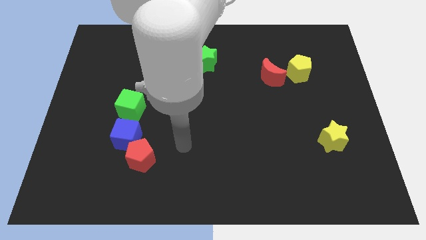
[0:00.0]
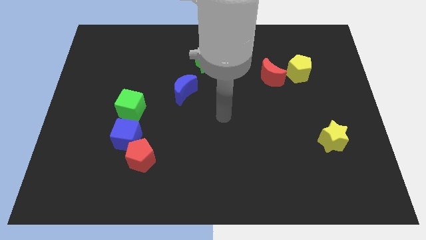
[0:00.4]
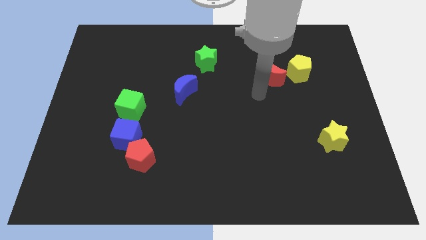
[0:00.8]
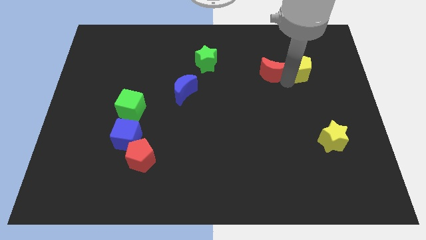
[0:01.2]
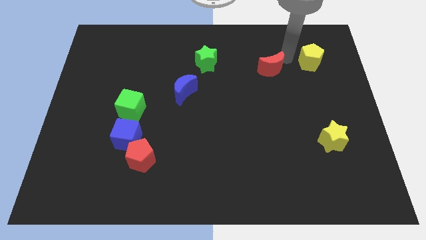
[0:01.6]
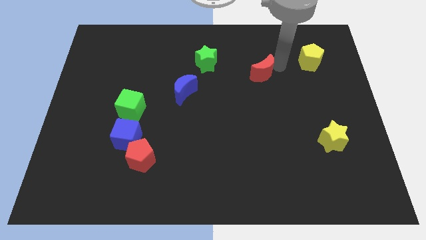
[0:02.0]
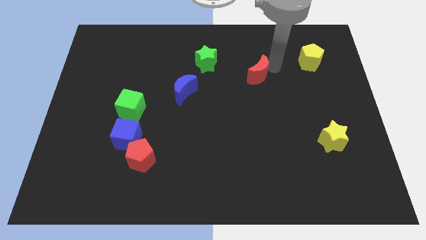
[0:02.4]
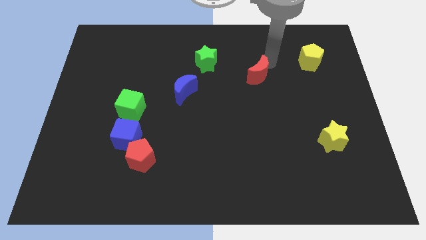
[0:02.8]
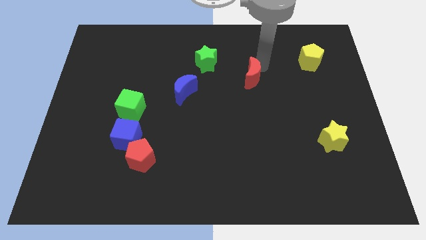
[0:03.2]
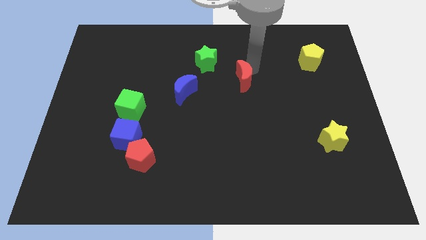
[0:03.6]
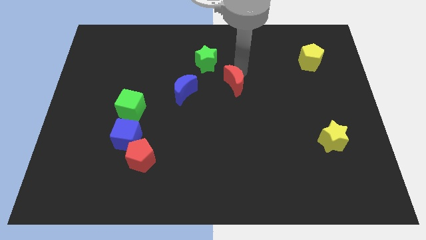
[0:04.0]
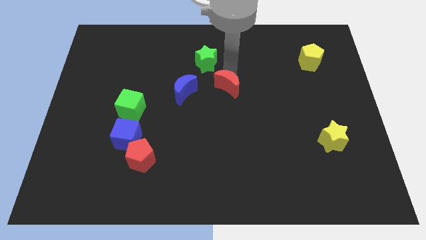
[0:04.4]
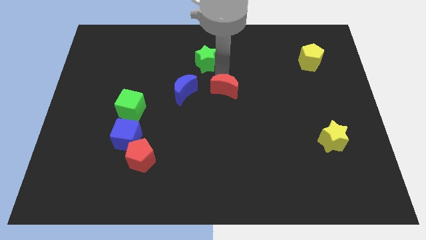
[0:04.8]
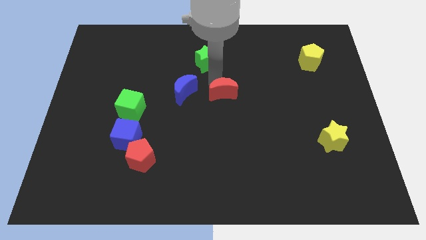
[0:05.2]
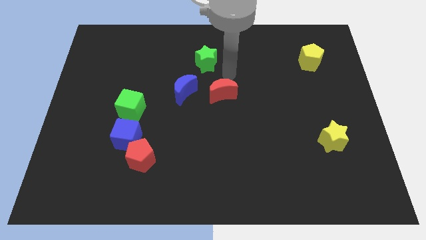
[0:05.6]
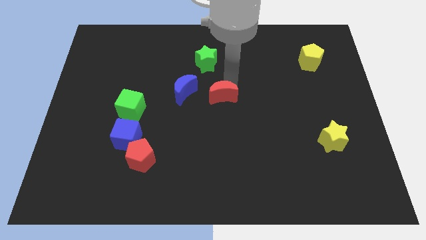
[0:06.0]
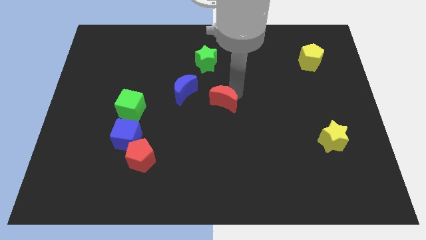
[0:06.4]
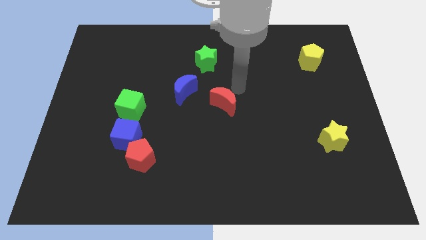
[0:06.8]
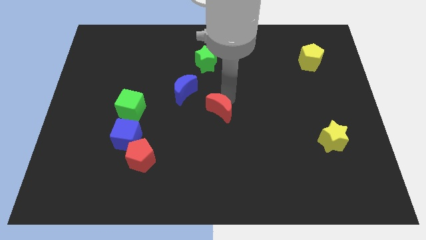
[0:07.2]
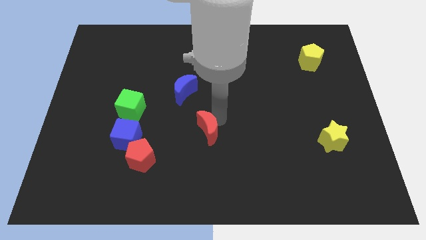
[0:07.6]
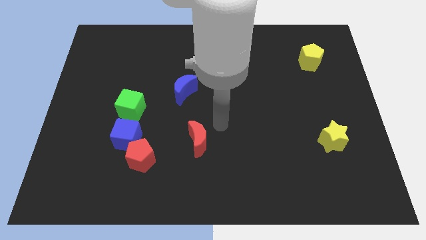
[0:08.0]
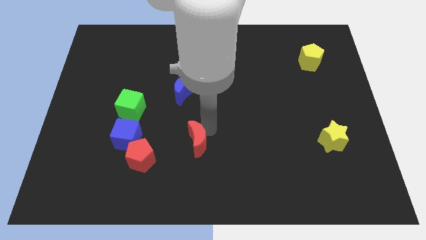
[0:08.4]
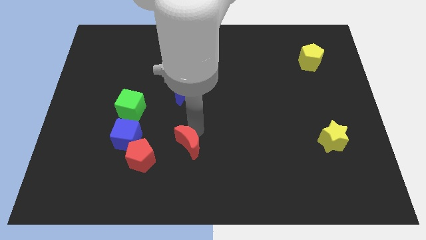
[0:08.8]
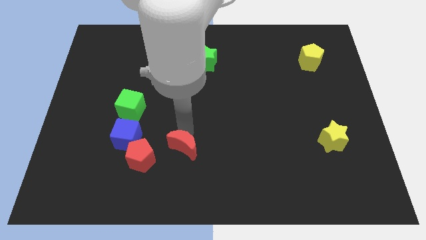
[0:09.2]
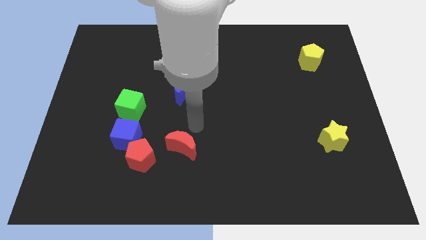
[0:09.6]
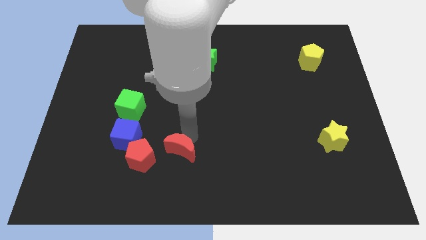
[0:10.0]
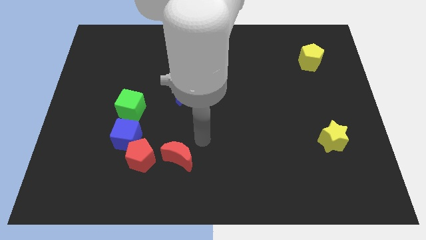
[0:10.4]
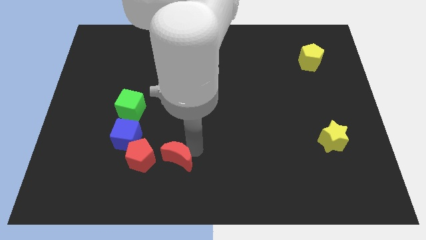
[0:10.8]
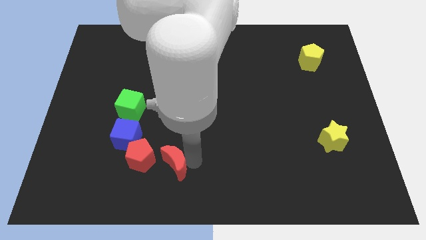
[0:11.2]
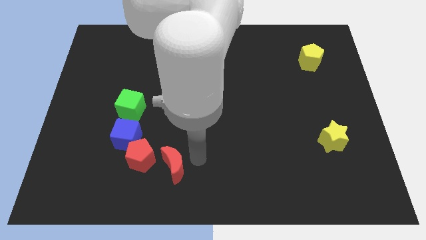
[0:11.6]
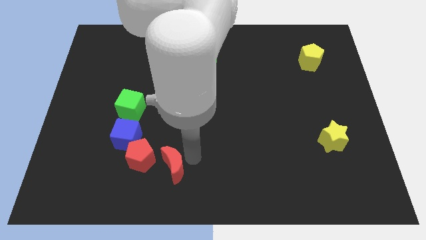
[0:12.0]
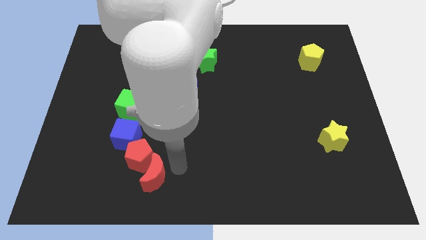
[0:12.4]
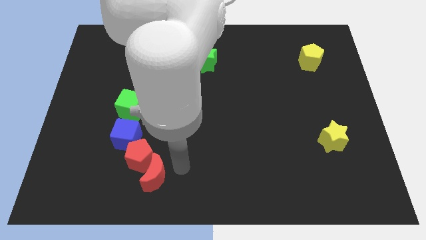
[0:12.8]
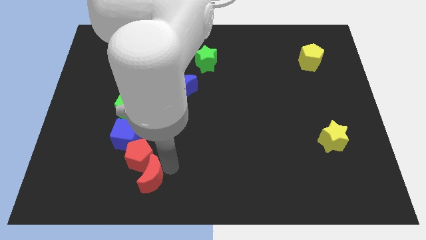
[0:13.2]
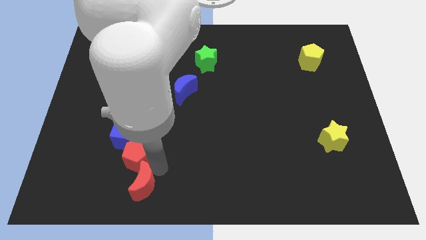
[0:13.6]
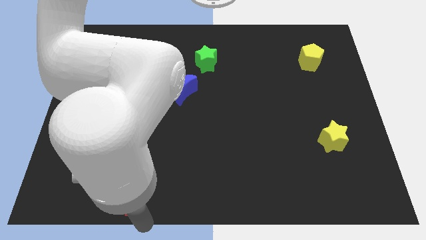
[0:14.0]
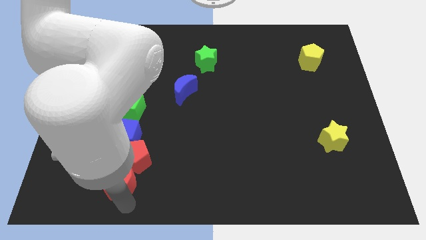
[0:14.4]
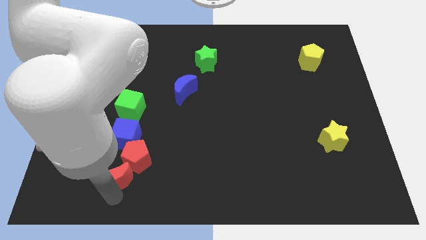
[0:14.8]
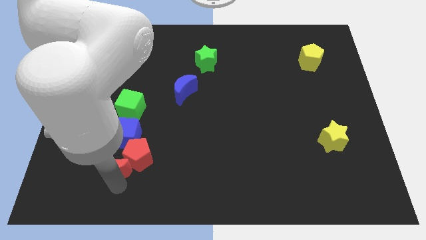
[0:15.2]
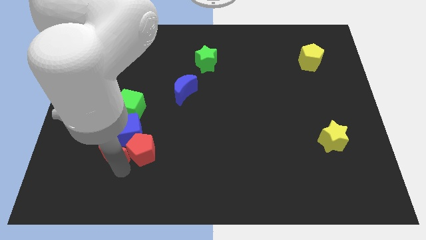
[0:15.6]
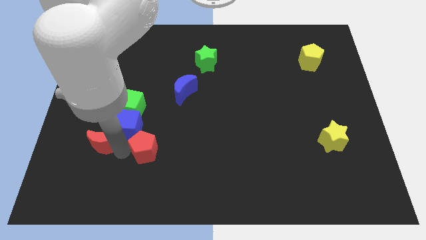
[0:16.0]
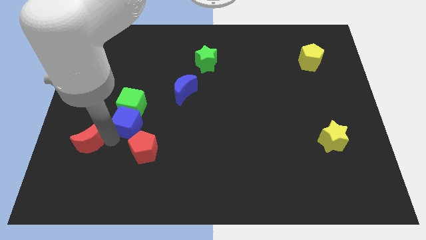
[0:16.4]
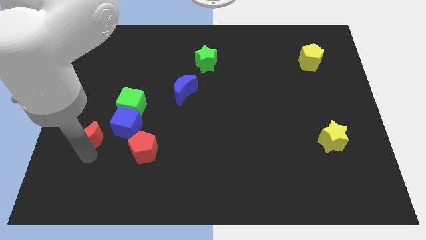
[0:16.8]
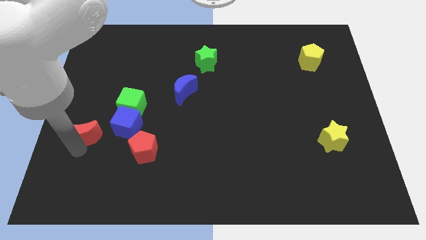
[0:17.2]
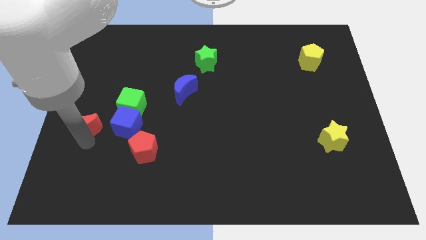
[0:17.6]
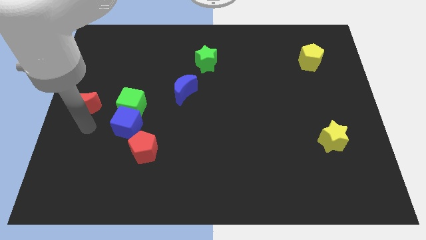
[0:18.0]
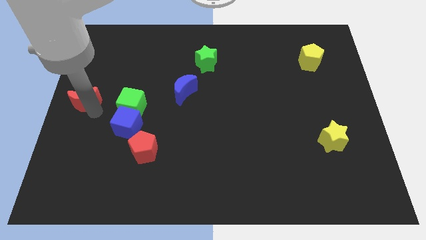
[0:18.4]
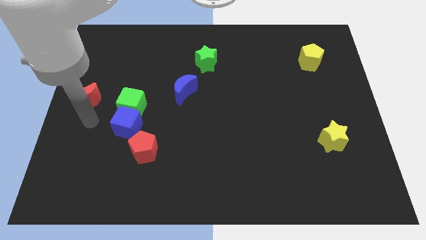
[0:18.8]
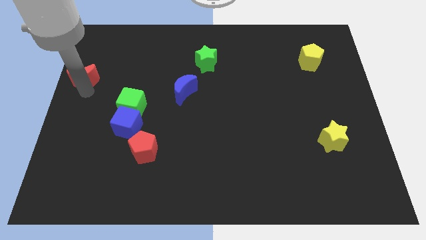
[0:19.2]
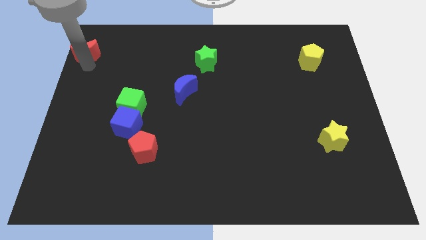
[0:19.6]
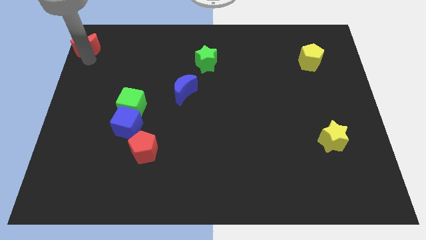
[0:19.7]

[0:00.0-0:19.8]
put the red moon to the upper left corner

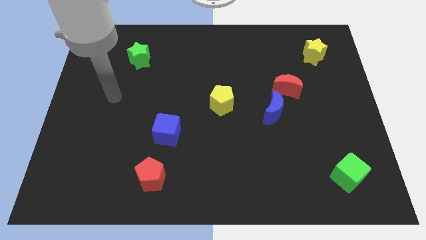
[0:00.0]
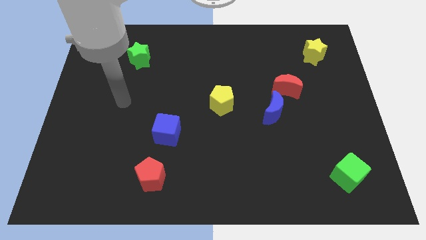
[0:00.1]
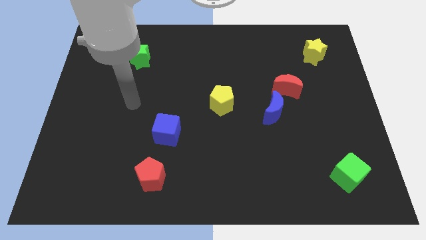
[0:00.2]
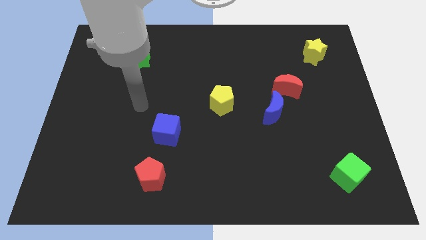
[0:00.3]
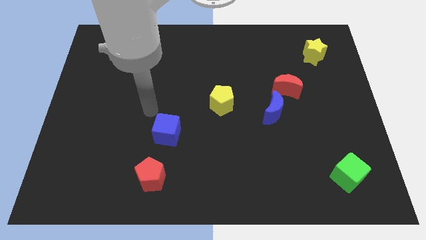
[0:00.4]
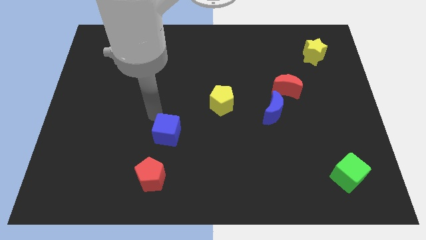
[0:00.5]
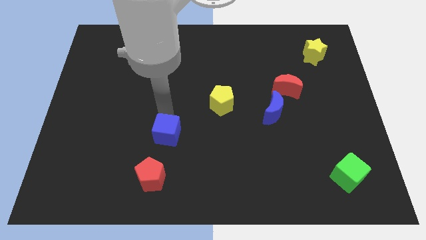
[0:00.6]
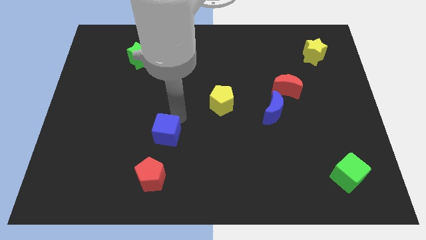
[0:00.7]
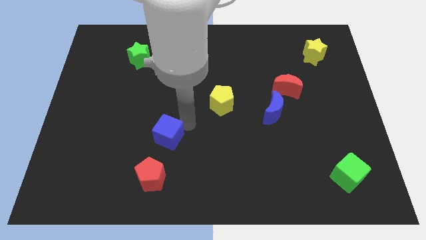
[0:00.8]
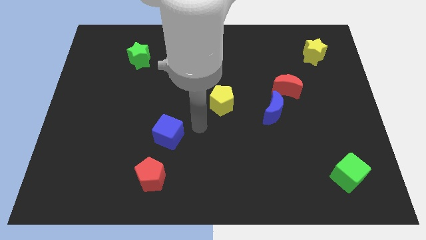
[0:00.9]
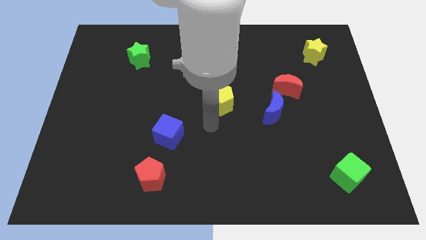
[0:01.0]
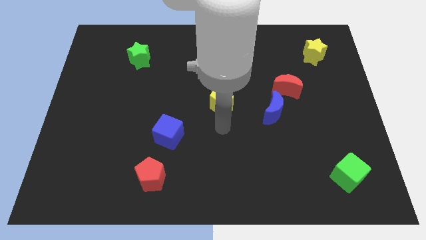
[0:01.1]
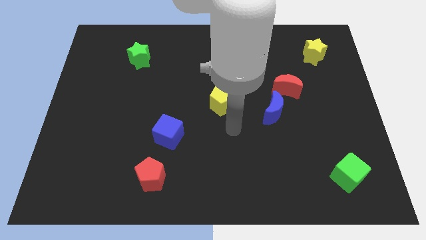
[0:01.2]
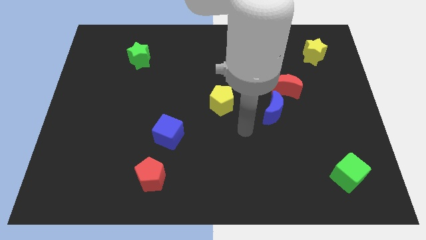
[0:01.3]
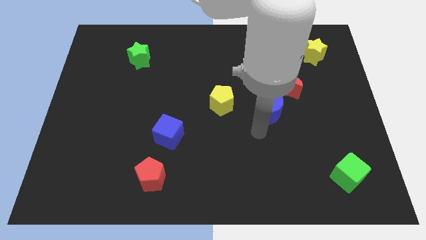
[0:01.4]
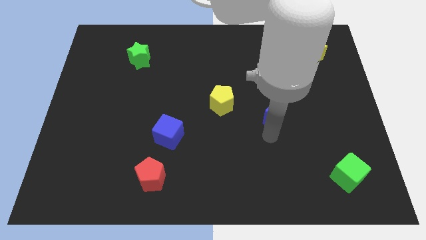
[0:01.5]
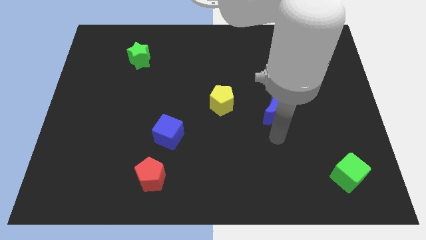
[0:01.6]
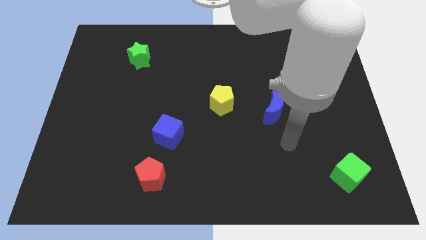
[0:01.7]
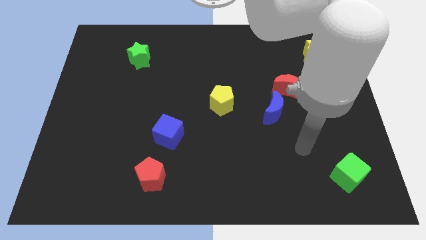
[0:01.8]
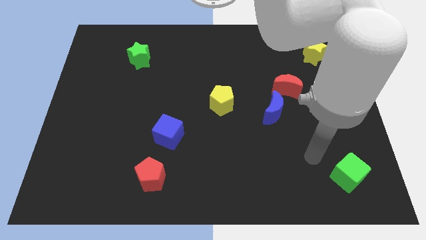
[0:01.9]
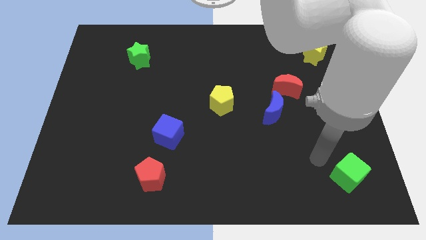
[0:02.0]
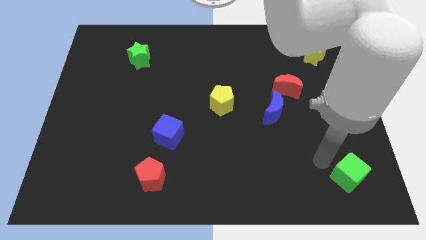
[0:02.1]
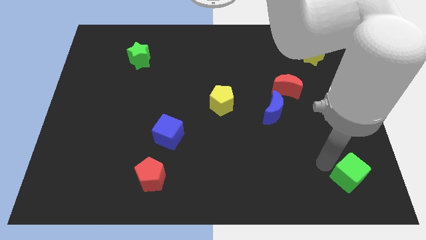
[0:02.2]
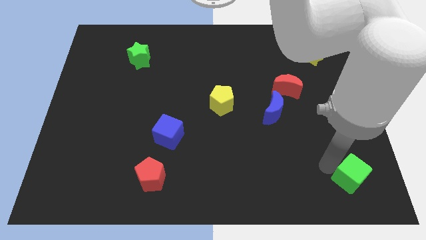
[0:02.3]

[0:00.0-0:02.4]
put the green cube to the bottom right of the board
